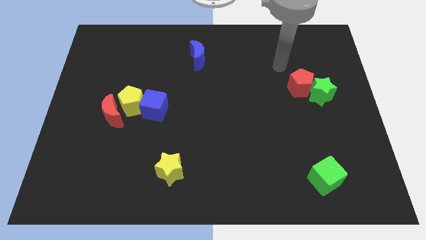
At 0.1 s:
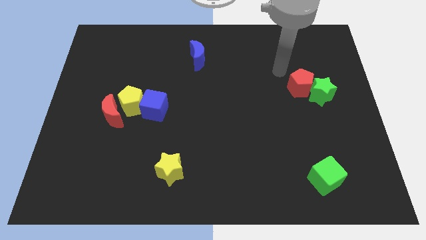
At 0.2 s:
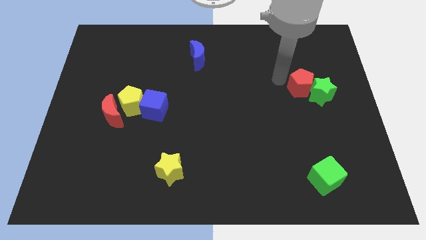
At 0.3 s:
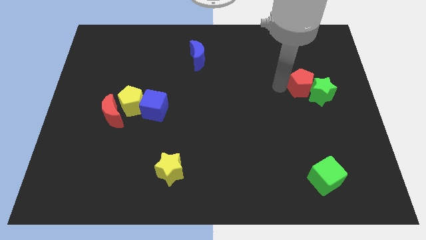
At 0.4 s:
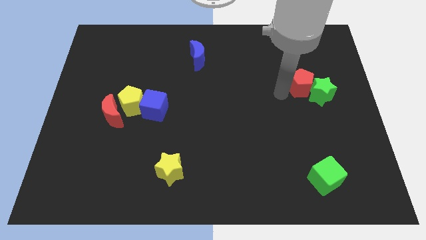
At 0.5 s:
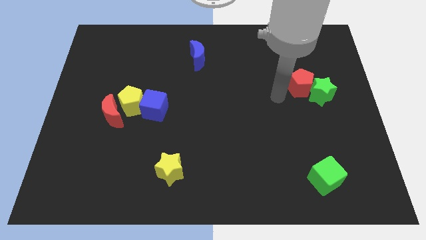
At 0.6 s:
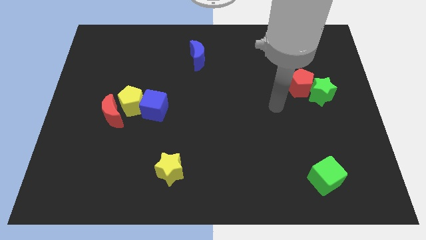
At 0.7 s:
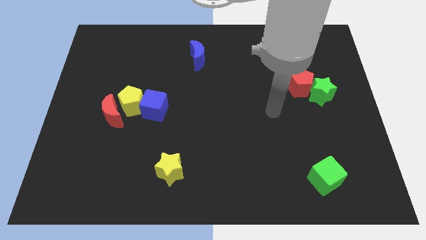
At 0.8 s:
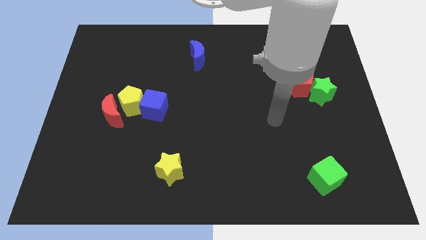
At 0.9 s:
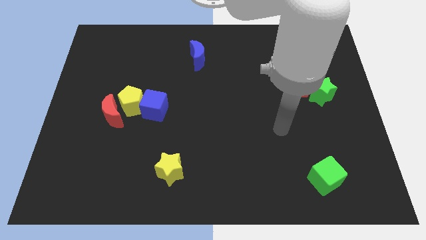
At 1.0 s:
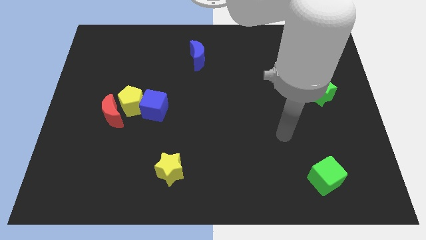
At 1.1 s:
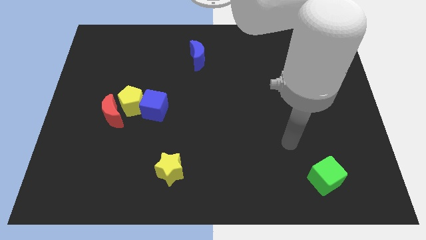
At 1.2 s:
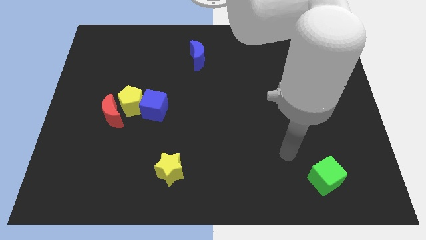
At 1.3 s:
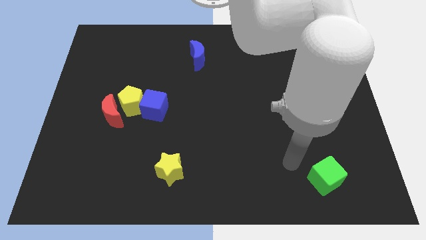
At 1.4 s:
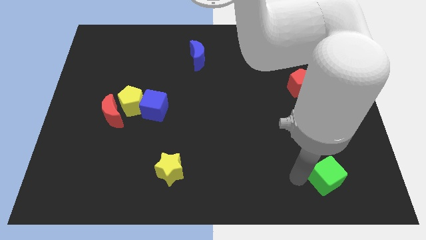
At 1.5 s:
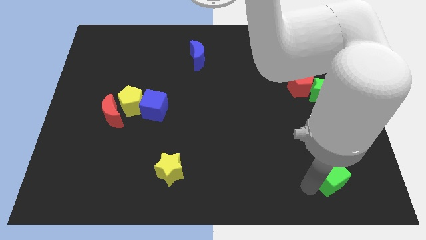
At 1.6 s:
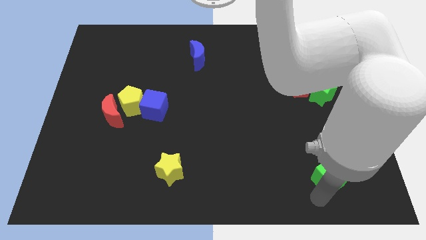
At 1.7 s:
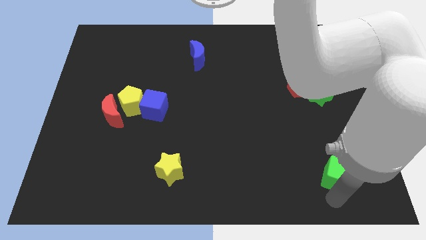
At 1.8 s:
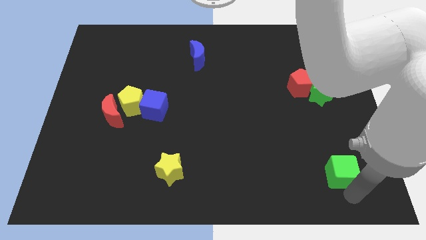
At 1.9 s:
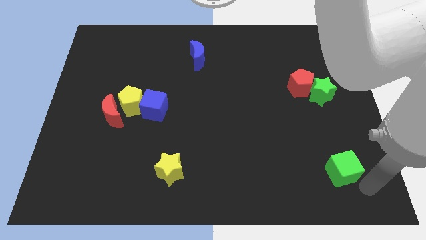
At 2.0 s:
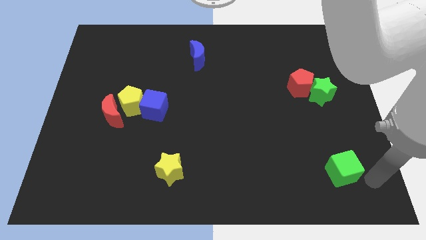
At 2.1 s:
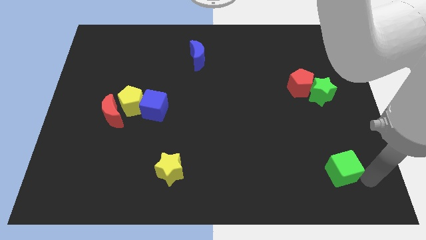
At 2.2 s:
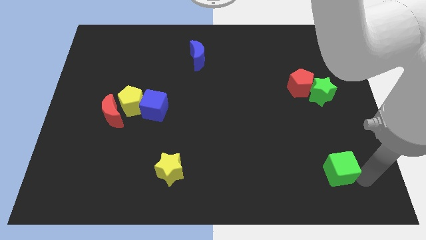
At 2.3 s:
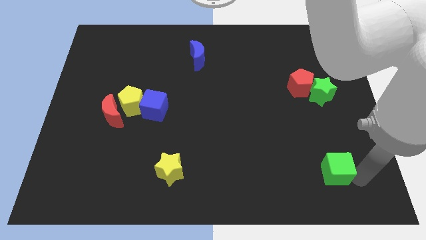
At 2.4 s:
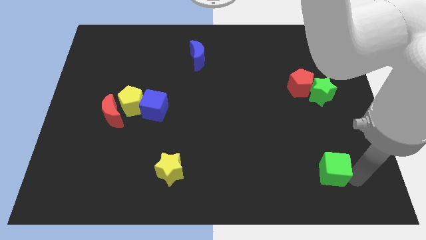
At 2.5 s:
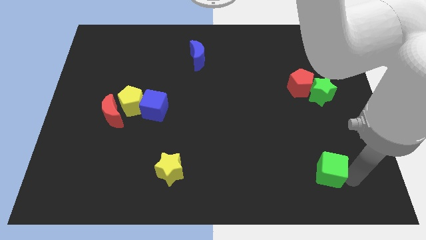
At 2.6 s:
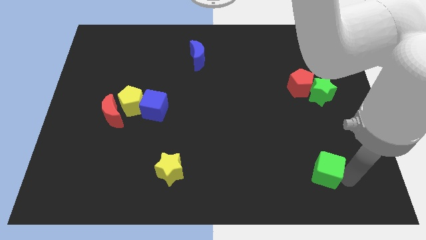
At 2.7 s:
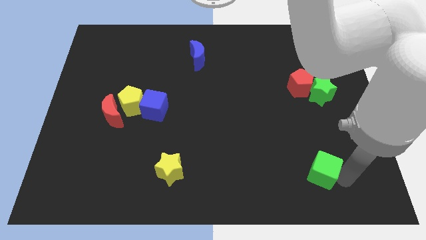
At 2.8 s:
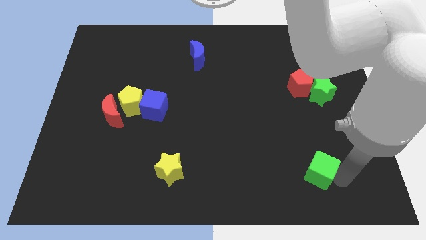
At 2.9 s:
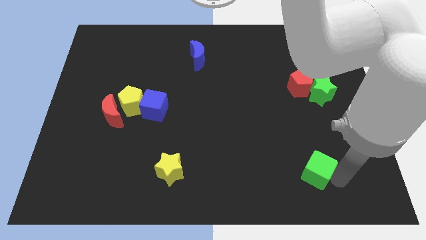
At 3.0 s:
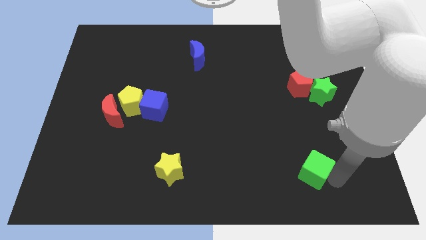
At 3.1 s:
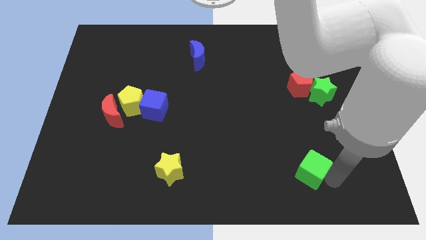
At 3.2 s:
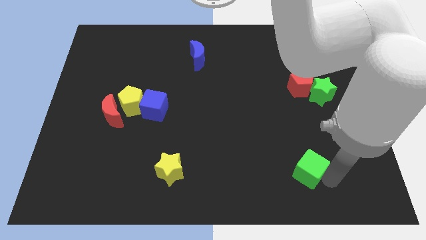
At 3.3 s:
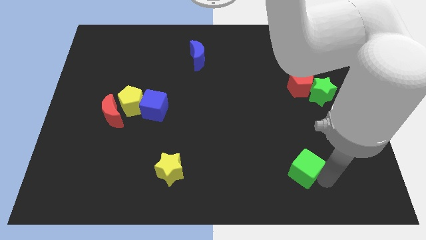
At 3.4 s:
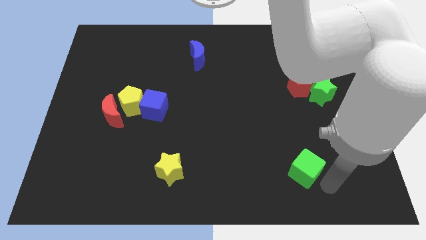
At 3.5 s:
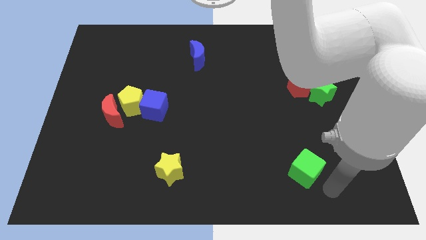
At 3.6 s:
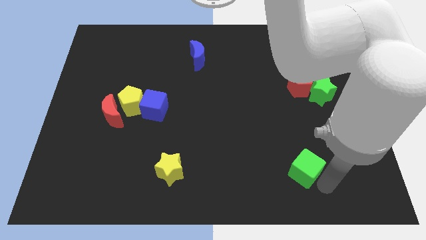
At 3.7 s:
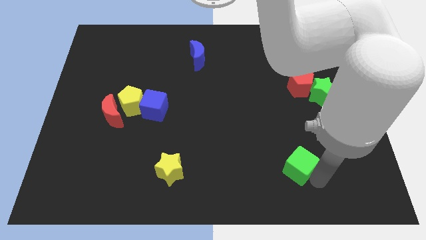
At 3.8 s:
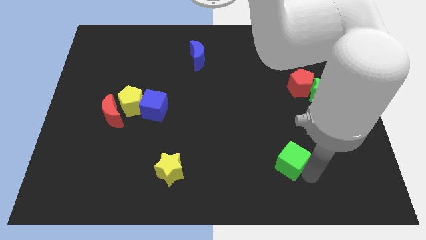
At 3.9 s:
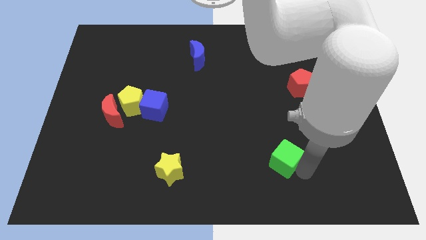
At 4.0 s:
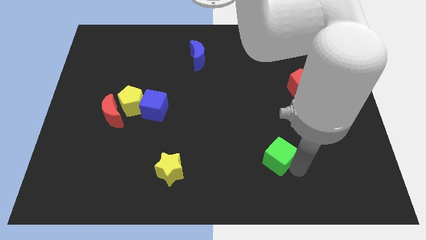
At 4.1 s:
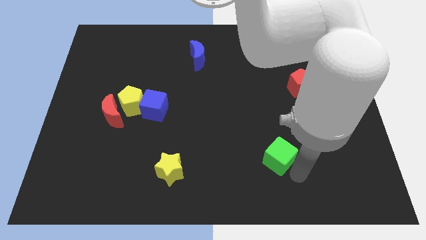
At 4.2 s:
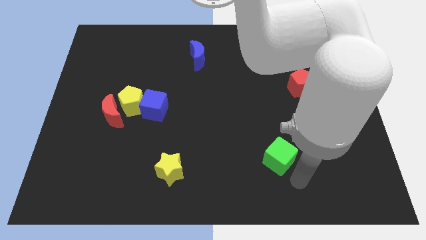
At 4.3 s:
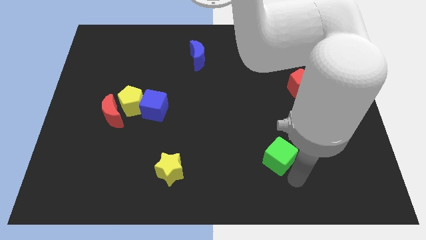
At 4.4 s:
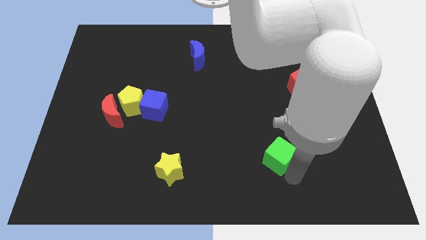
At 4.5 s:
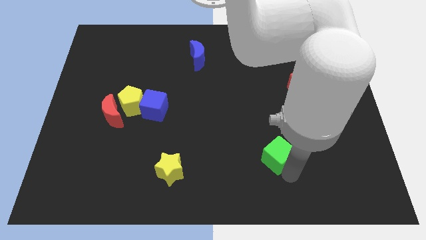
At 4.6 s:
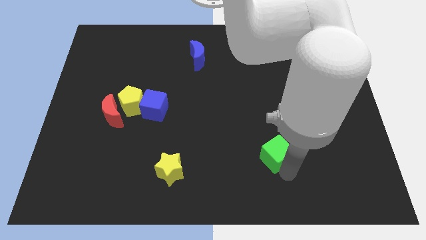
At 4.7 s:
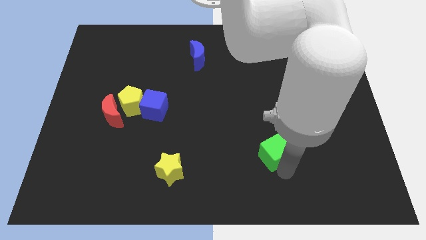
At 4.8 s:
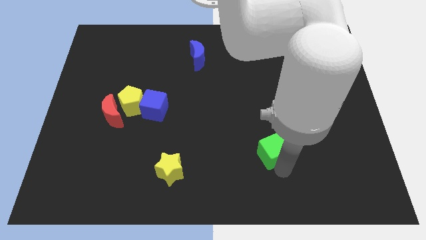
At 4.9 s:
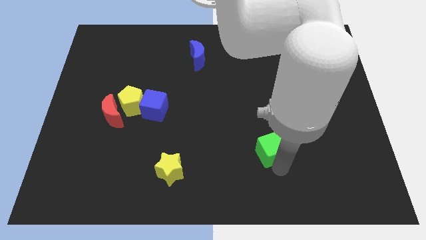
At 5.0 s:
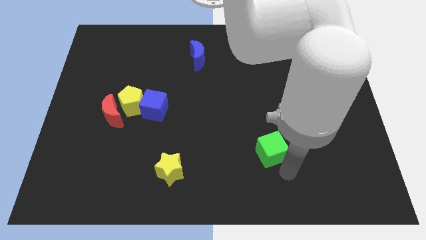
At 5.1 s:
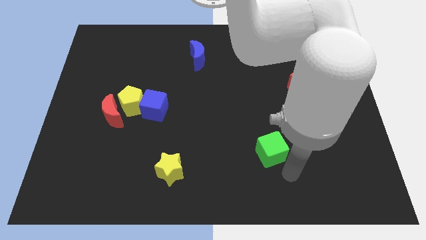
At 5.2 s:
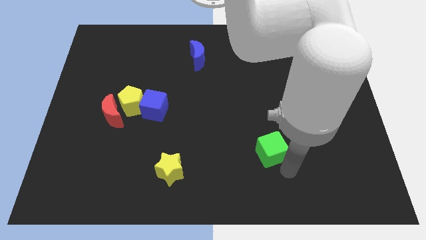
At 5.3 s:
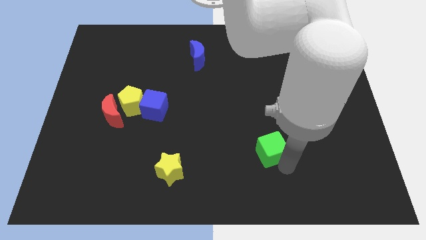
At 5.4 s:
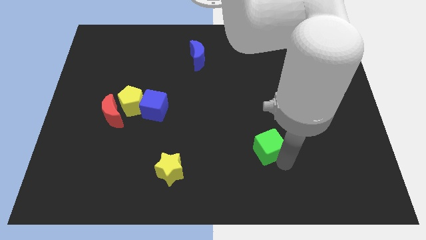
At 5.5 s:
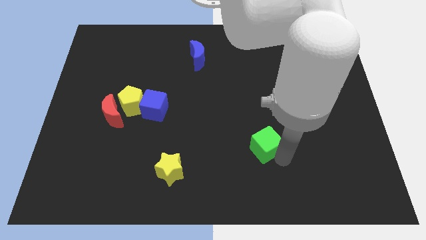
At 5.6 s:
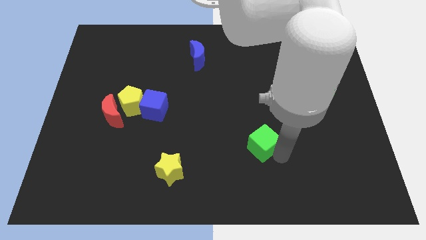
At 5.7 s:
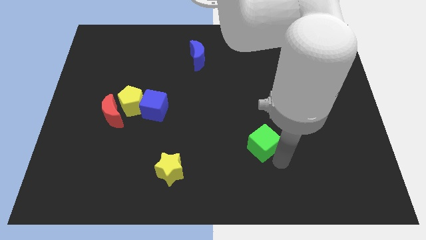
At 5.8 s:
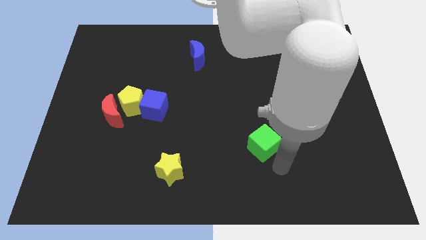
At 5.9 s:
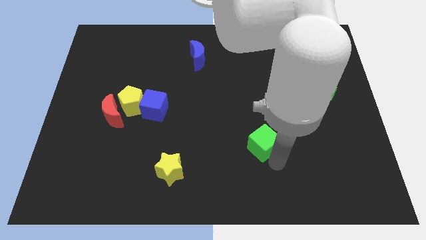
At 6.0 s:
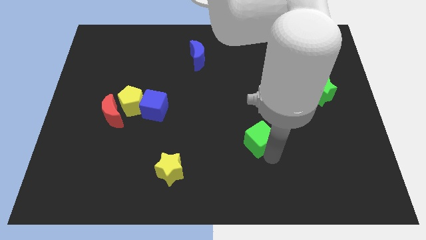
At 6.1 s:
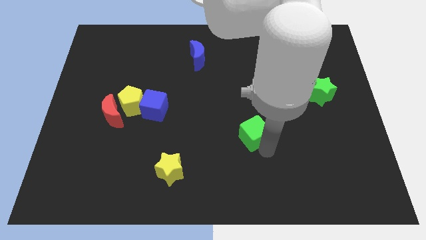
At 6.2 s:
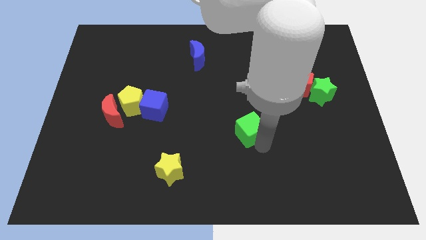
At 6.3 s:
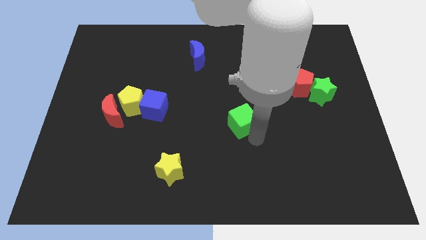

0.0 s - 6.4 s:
slide the green cube up and left

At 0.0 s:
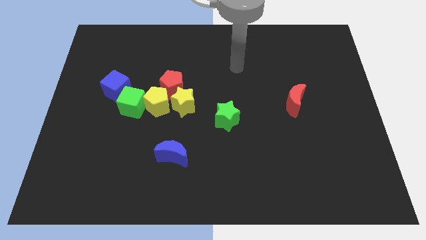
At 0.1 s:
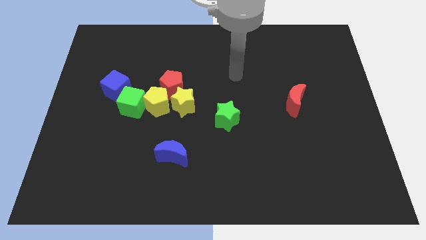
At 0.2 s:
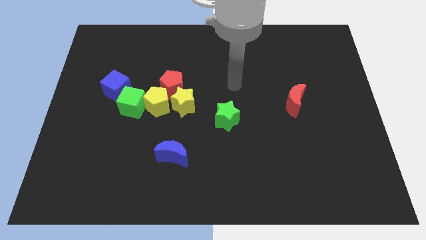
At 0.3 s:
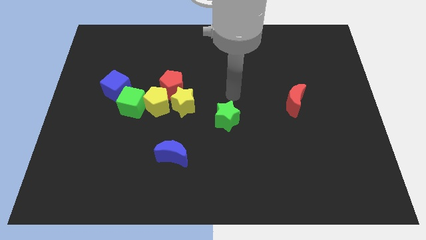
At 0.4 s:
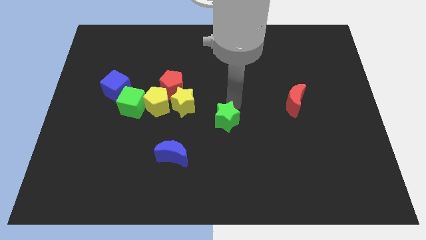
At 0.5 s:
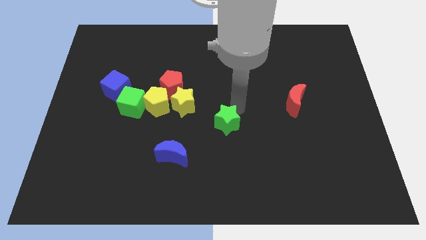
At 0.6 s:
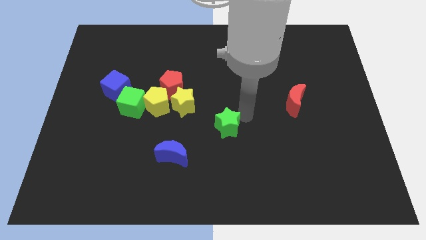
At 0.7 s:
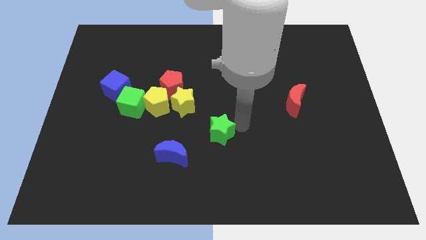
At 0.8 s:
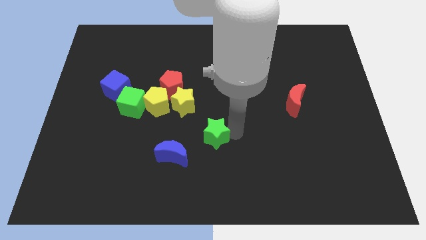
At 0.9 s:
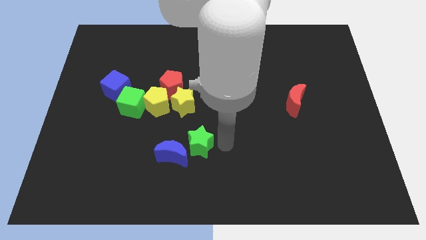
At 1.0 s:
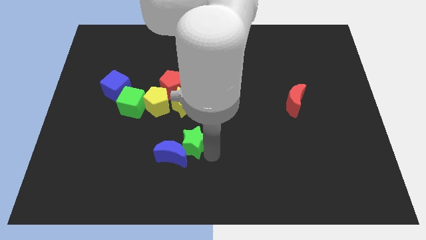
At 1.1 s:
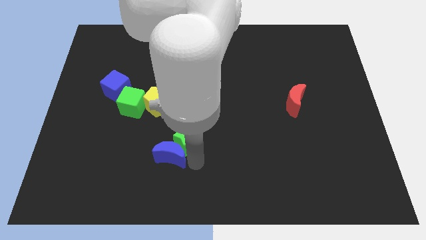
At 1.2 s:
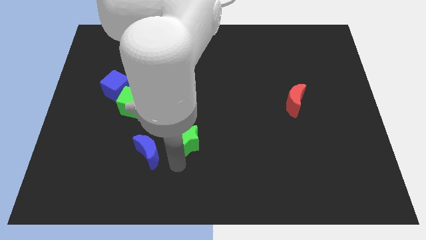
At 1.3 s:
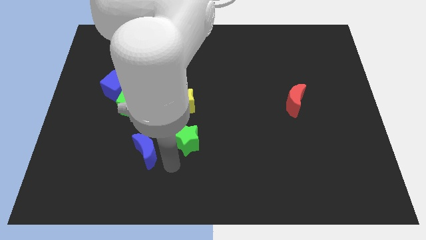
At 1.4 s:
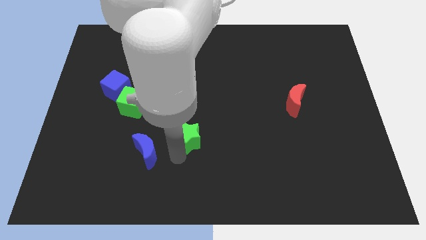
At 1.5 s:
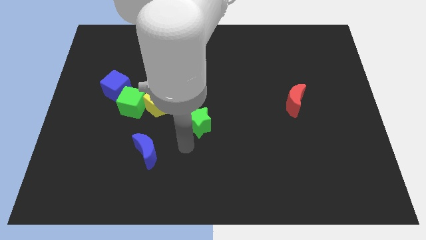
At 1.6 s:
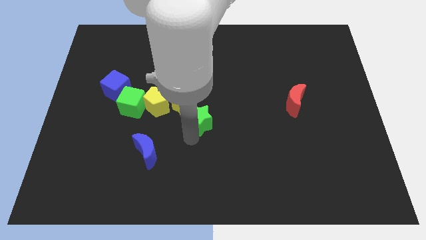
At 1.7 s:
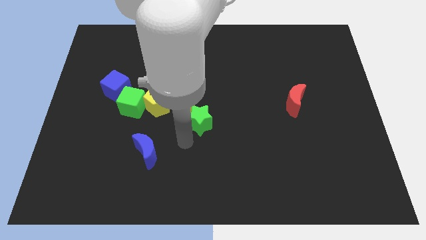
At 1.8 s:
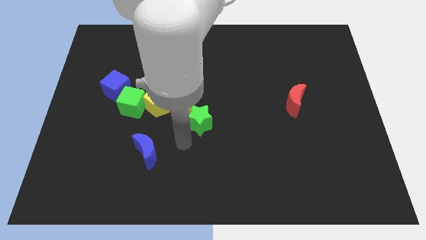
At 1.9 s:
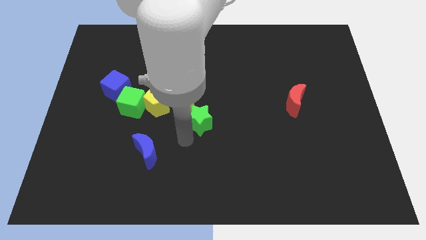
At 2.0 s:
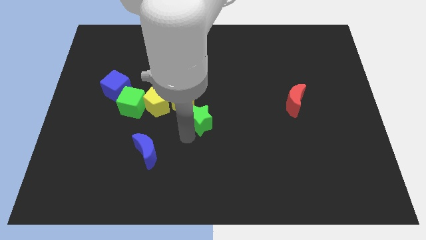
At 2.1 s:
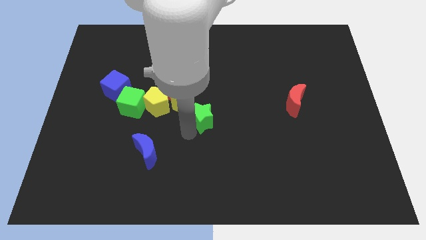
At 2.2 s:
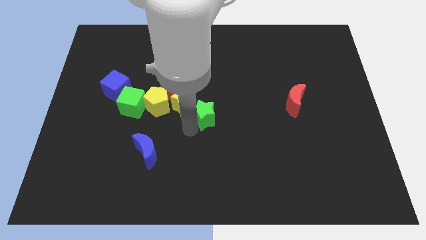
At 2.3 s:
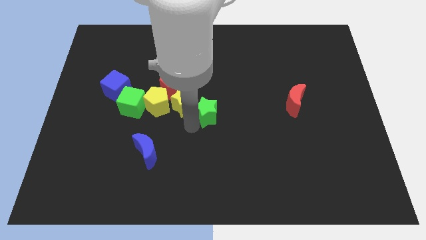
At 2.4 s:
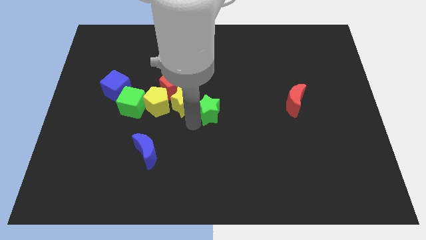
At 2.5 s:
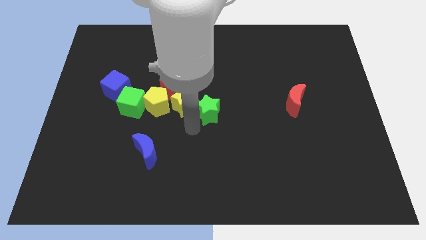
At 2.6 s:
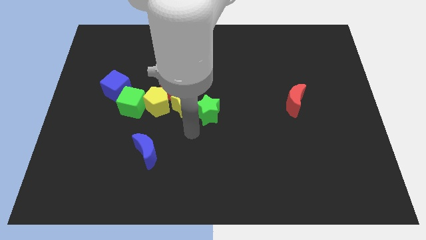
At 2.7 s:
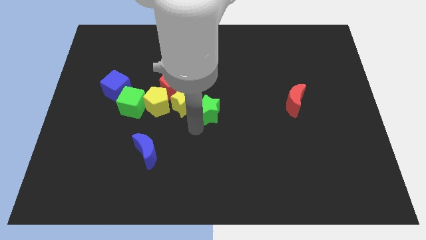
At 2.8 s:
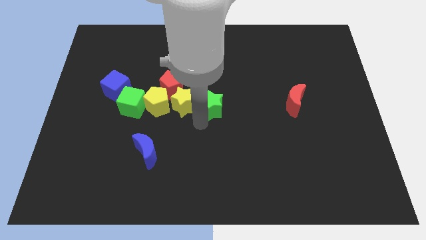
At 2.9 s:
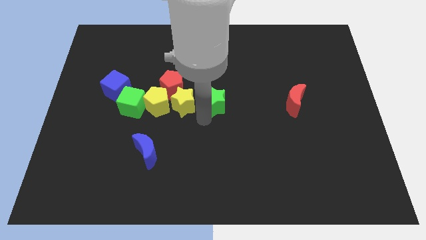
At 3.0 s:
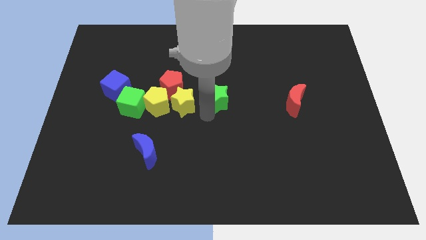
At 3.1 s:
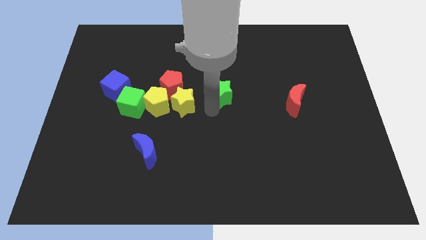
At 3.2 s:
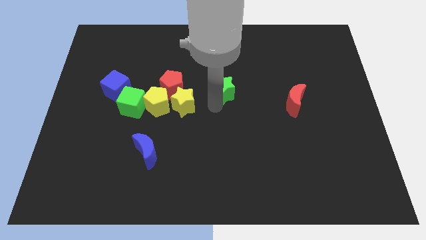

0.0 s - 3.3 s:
move the green star somewhat up
